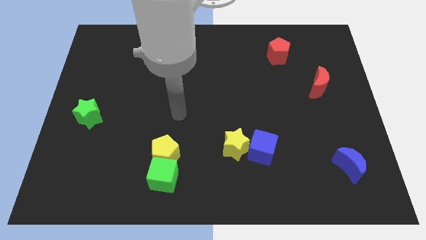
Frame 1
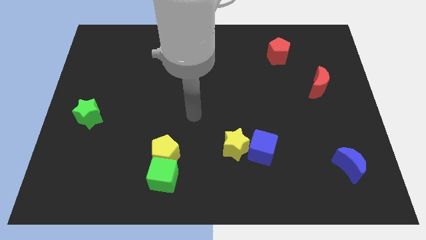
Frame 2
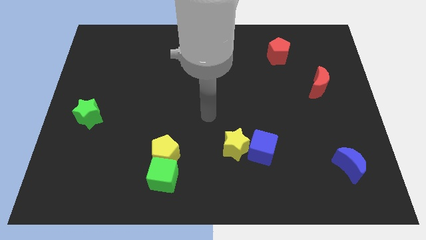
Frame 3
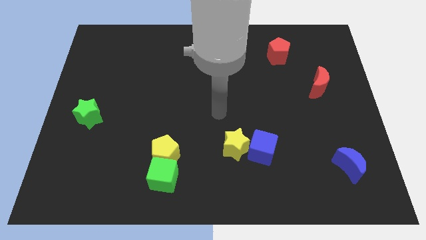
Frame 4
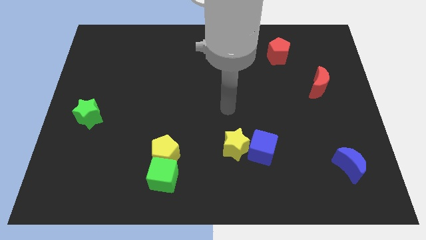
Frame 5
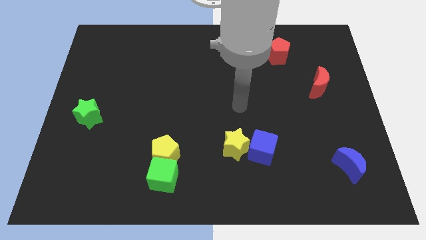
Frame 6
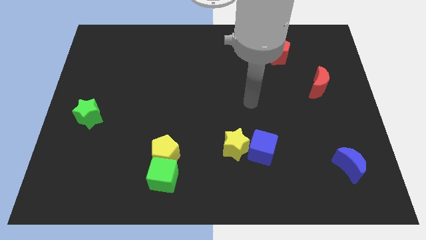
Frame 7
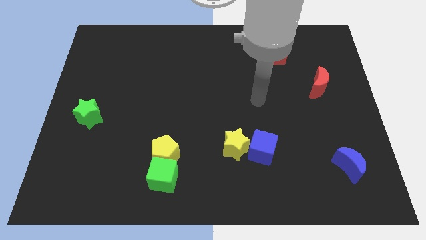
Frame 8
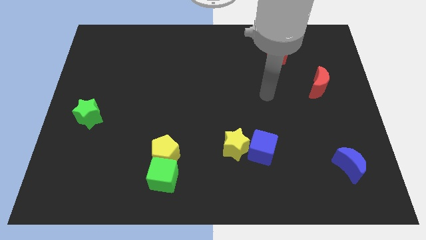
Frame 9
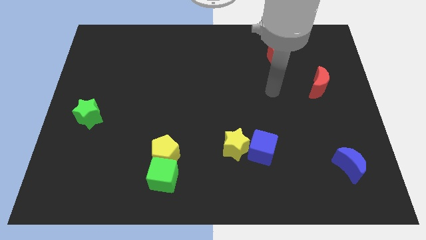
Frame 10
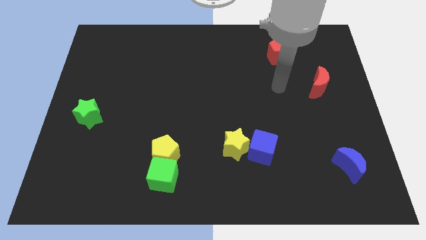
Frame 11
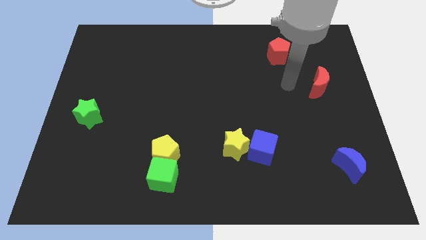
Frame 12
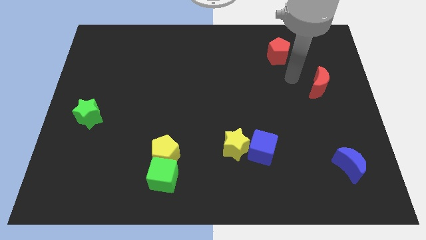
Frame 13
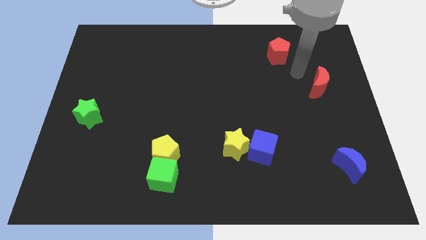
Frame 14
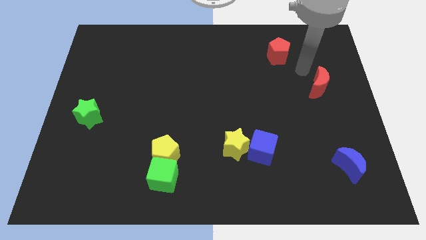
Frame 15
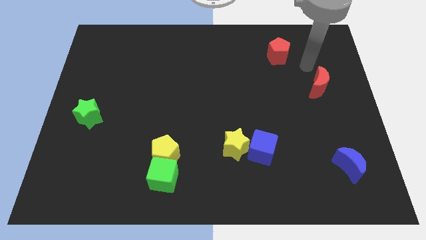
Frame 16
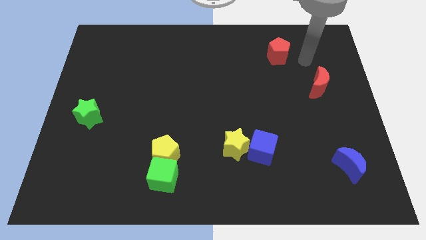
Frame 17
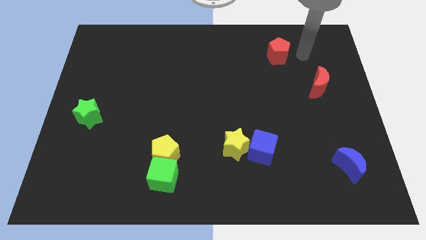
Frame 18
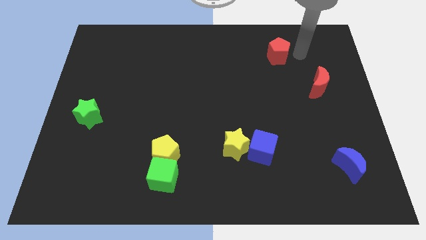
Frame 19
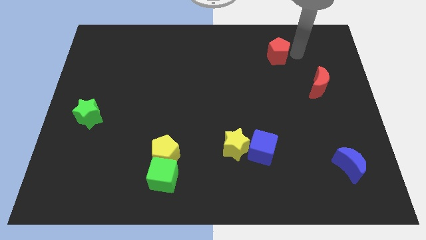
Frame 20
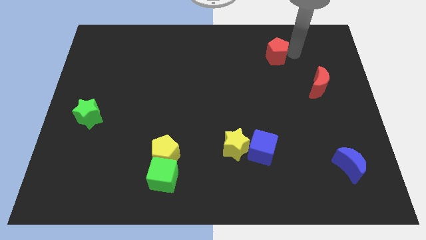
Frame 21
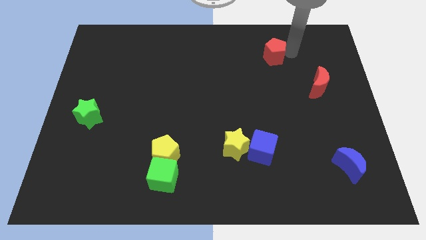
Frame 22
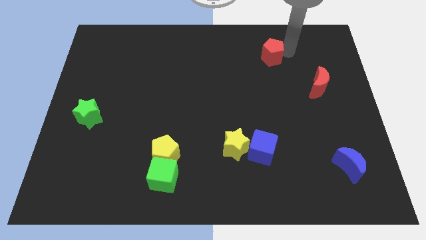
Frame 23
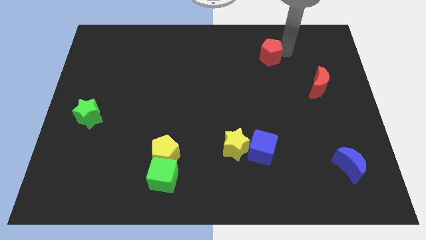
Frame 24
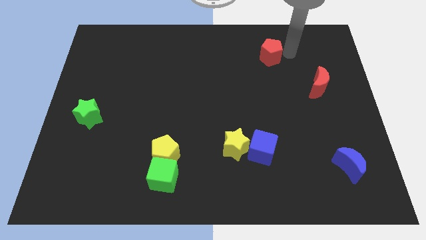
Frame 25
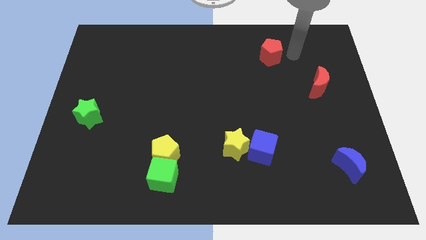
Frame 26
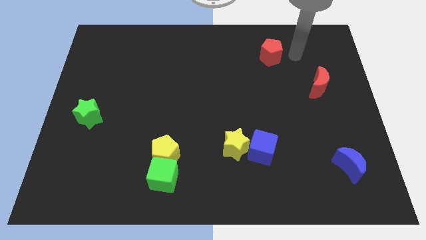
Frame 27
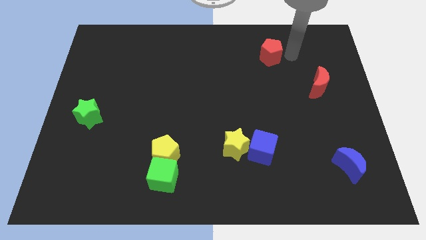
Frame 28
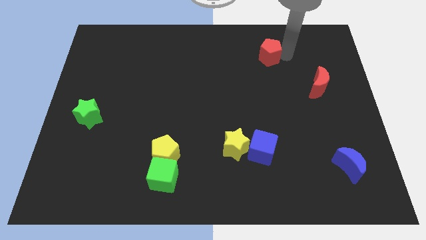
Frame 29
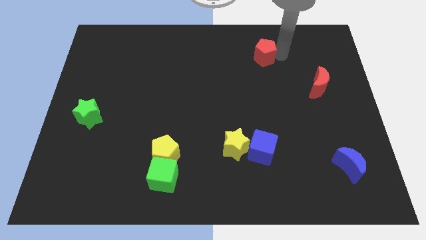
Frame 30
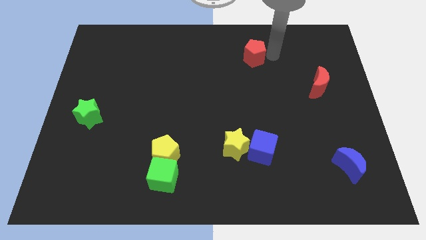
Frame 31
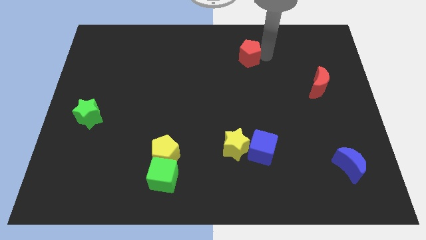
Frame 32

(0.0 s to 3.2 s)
slide the red pentagon a little bit left

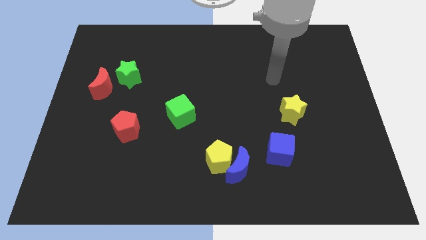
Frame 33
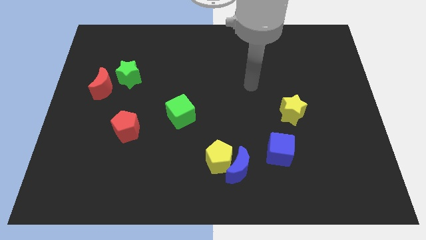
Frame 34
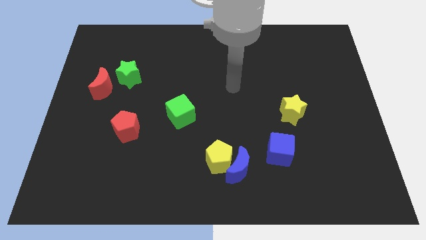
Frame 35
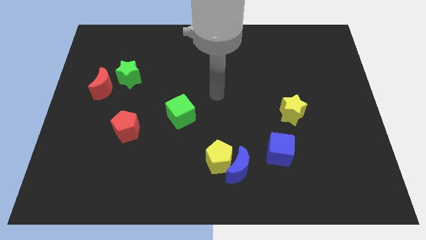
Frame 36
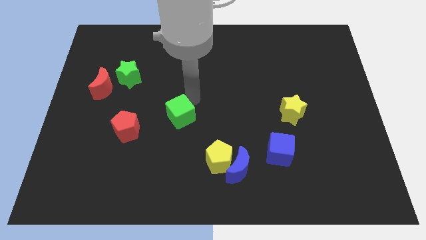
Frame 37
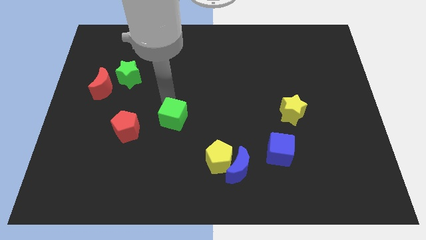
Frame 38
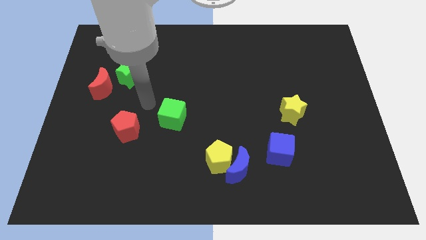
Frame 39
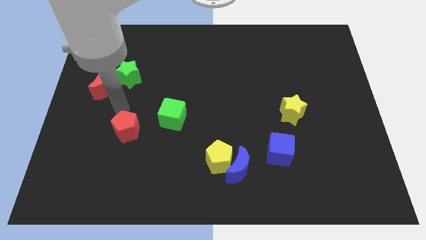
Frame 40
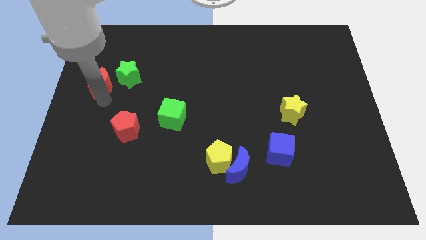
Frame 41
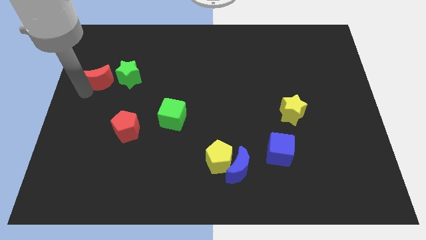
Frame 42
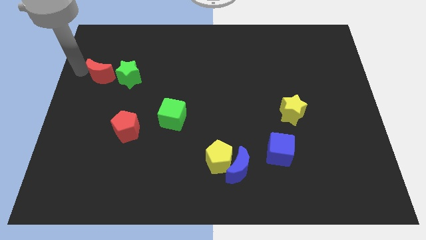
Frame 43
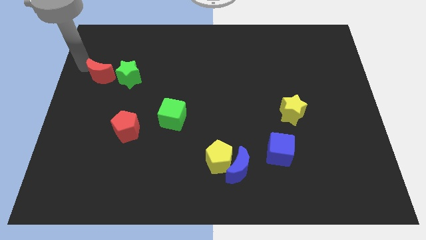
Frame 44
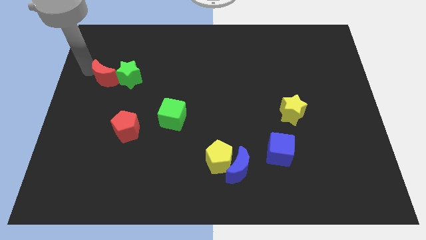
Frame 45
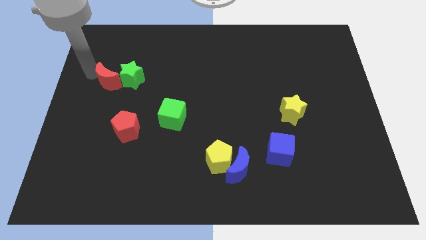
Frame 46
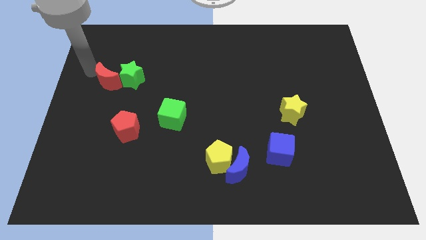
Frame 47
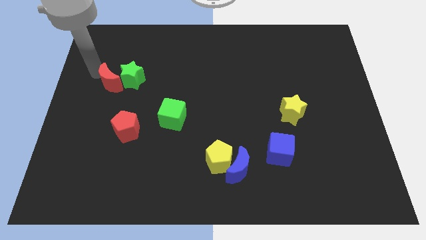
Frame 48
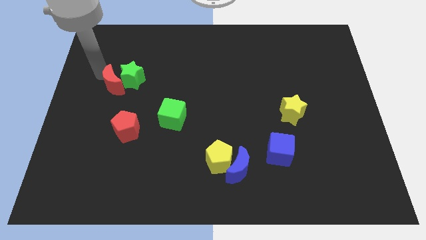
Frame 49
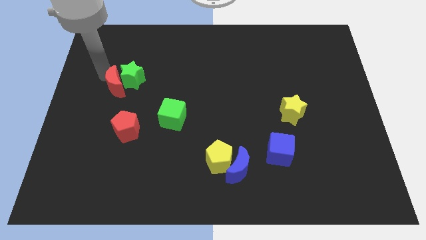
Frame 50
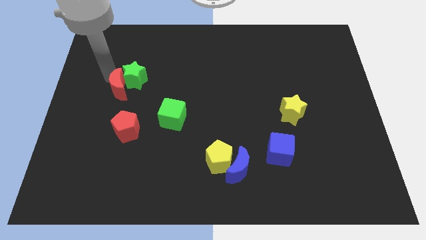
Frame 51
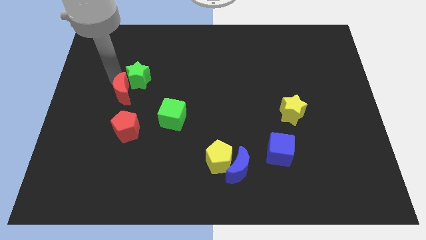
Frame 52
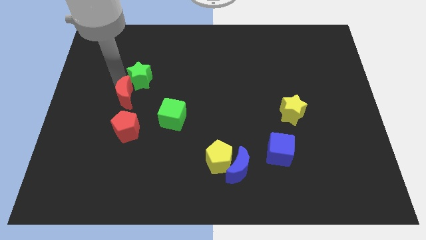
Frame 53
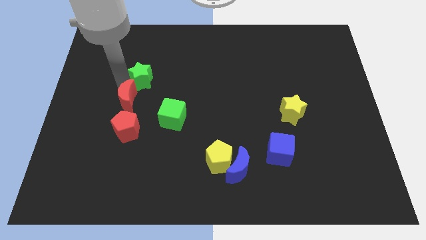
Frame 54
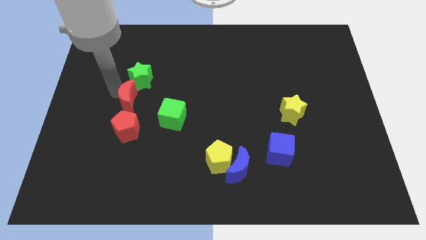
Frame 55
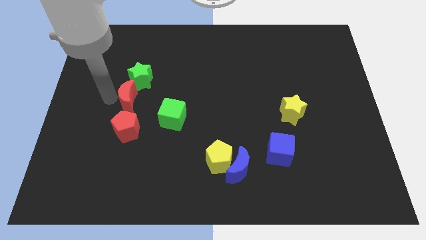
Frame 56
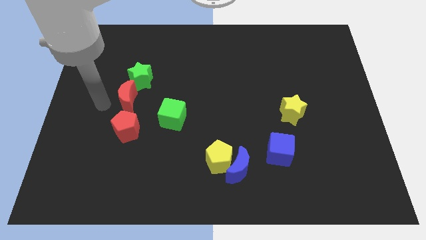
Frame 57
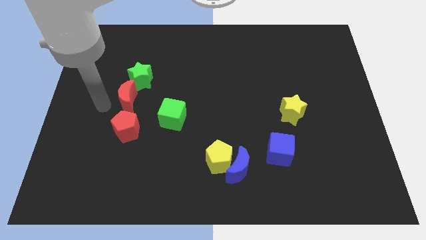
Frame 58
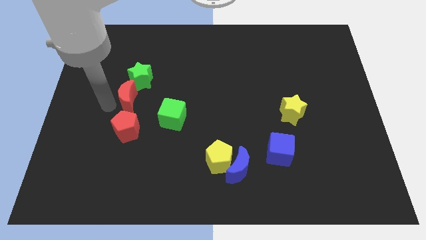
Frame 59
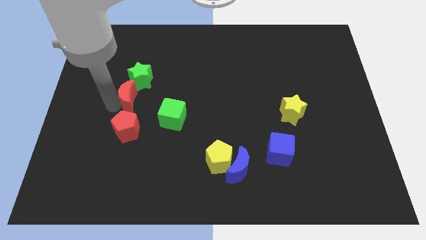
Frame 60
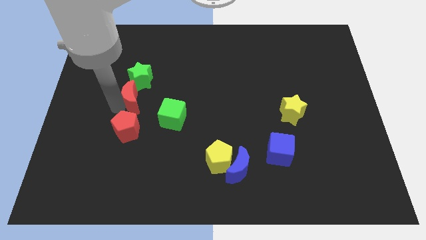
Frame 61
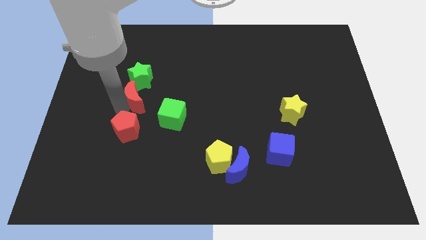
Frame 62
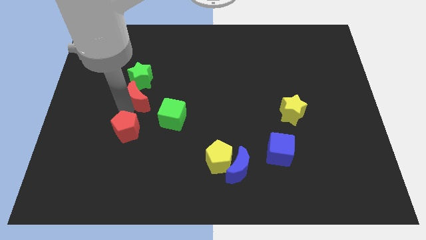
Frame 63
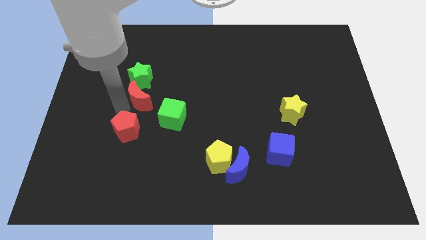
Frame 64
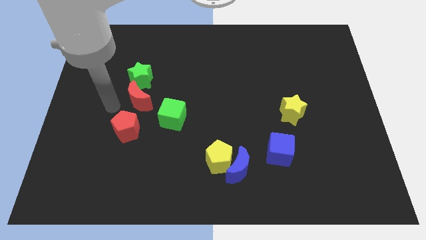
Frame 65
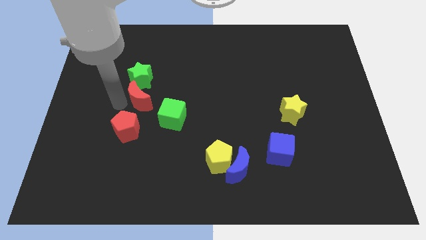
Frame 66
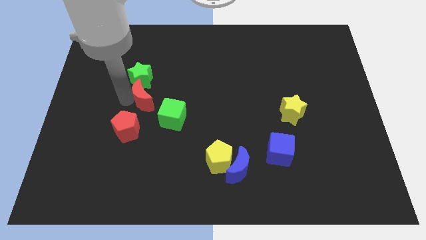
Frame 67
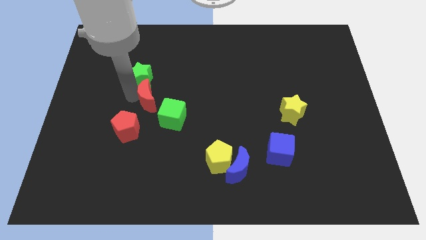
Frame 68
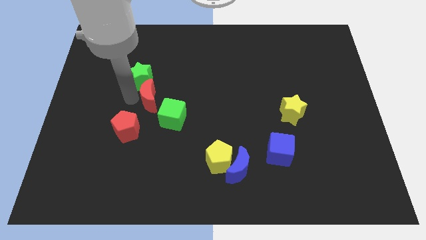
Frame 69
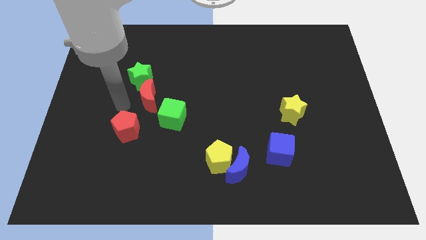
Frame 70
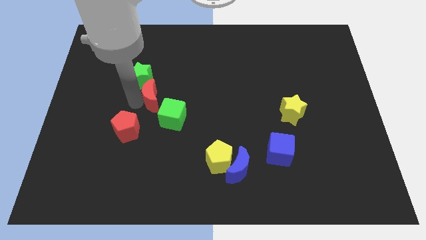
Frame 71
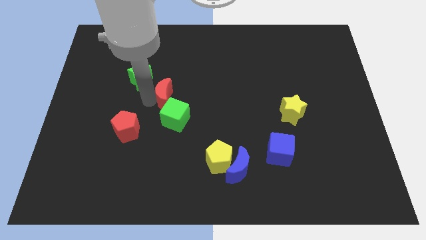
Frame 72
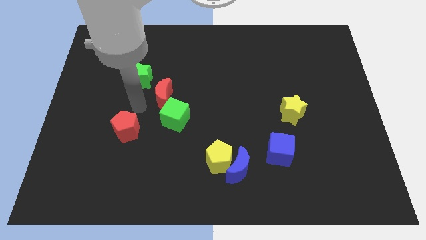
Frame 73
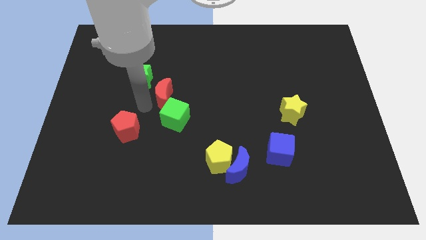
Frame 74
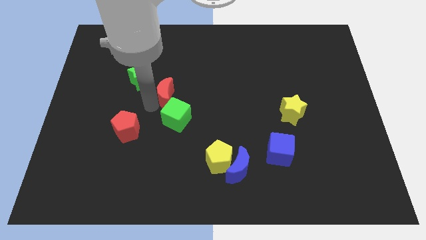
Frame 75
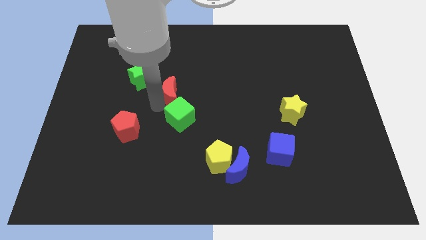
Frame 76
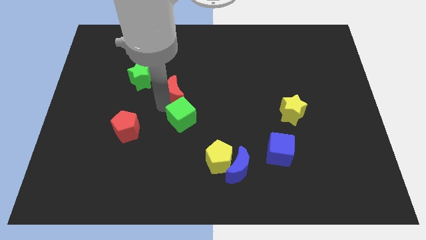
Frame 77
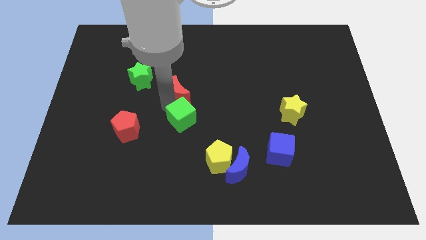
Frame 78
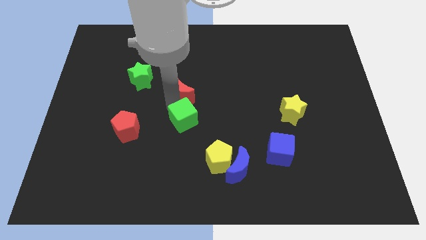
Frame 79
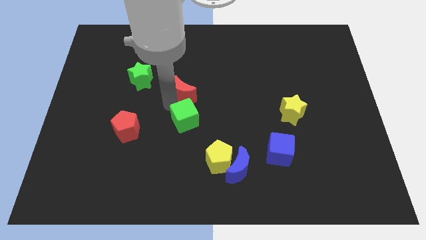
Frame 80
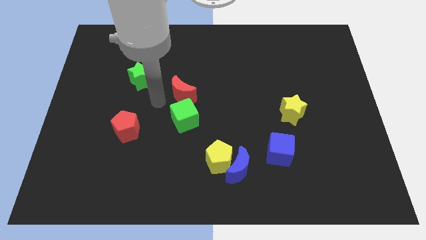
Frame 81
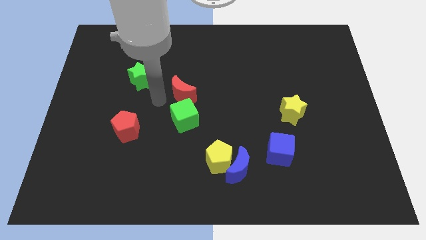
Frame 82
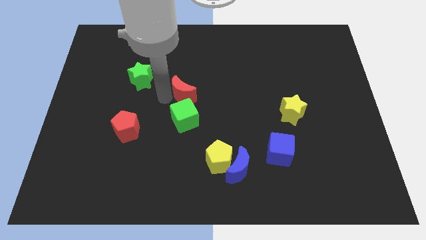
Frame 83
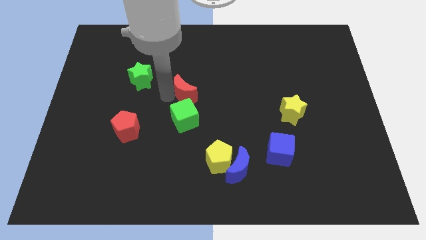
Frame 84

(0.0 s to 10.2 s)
slide the red moon to the right
